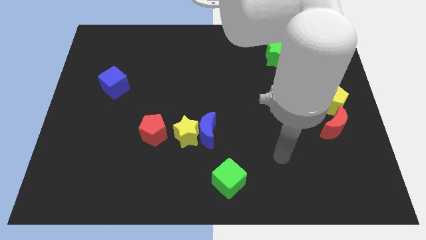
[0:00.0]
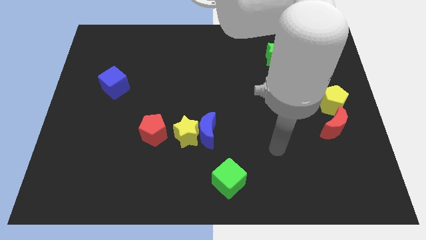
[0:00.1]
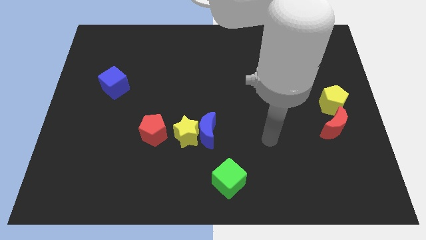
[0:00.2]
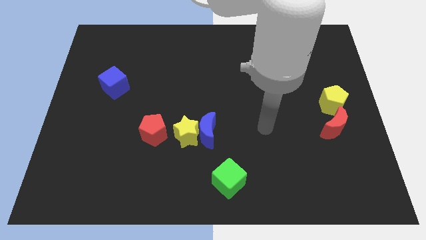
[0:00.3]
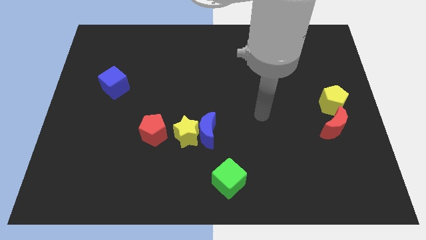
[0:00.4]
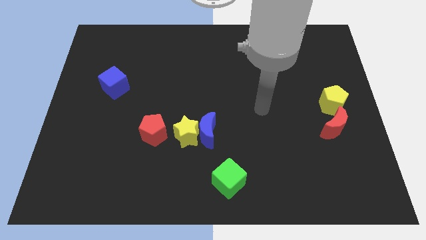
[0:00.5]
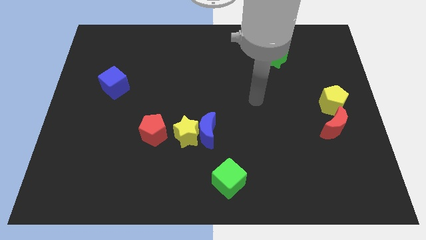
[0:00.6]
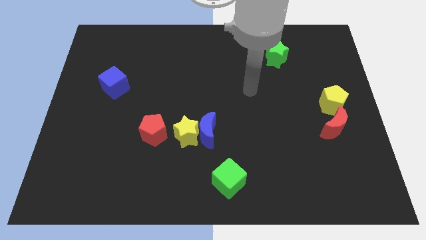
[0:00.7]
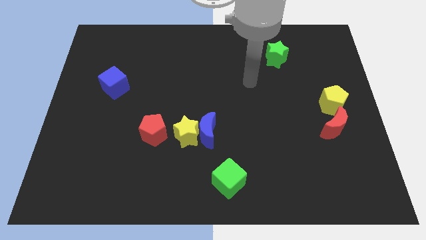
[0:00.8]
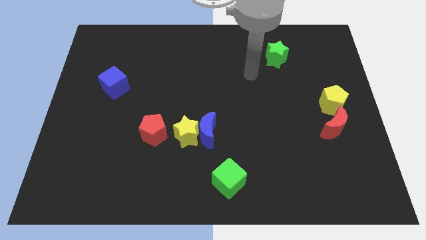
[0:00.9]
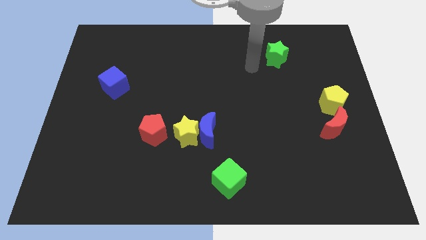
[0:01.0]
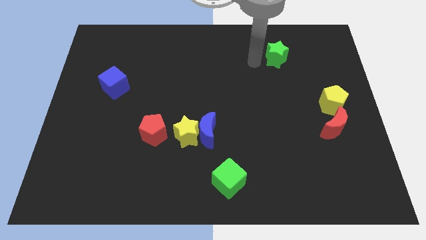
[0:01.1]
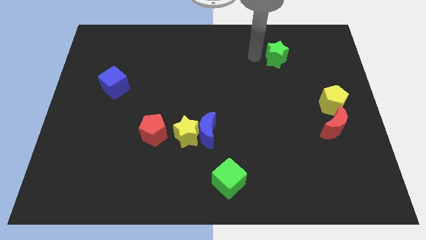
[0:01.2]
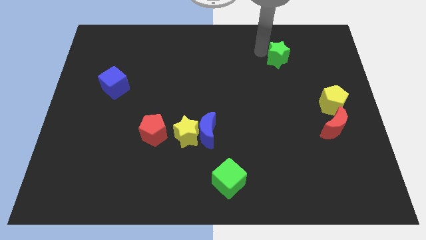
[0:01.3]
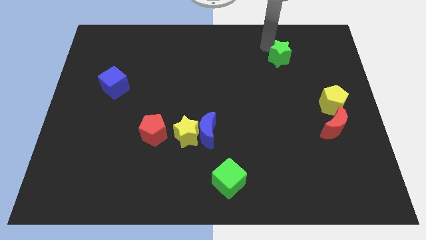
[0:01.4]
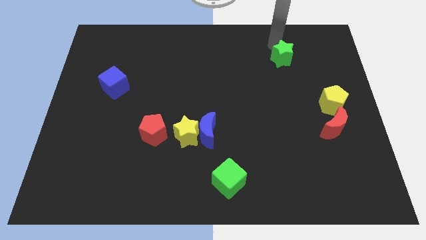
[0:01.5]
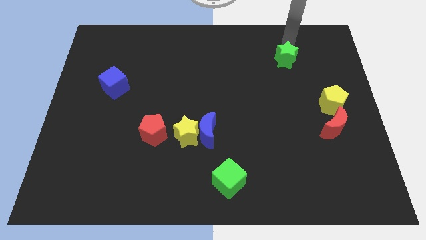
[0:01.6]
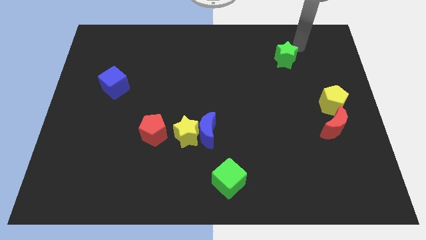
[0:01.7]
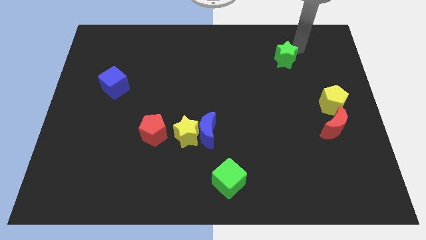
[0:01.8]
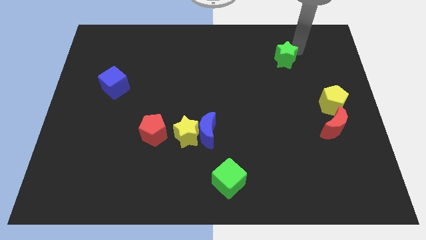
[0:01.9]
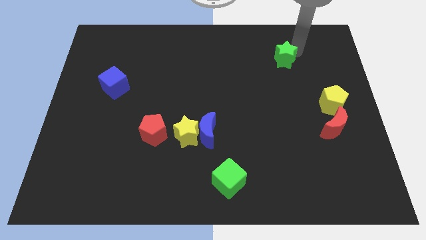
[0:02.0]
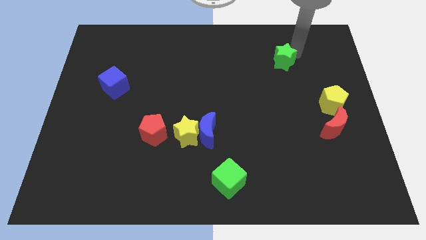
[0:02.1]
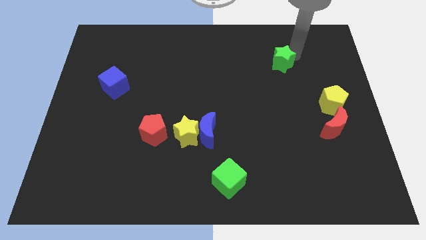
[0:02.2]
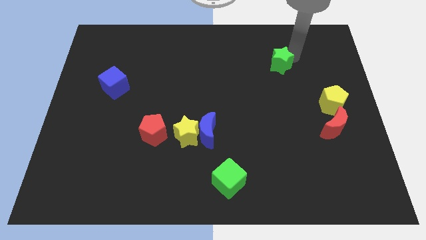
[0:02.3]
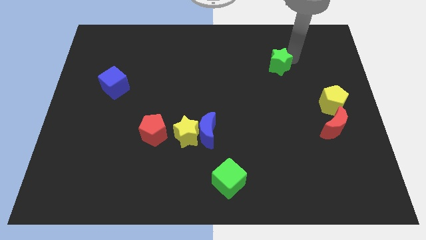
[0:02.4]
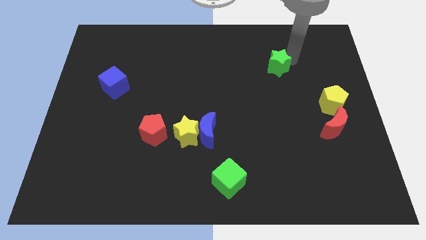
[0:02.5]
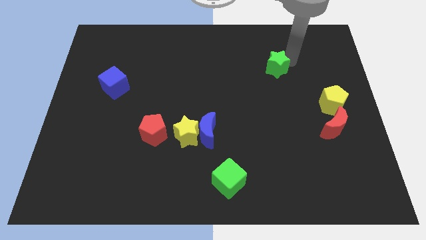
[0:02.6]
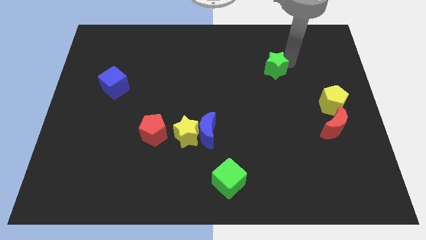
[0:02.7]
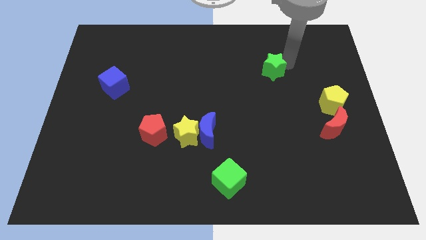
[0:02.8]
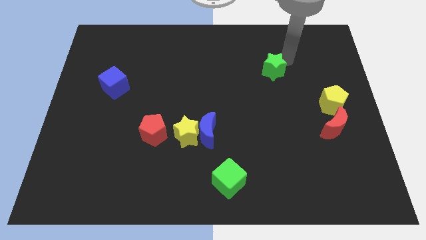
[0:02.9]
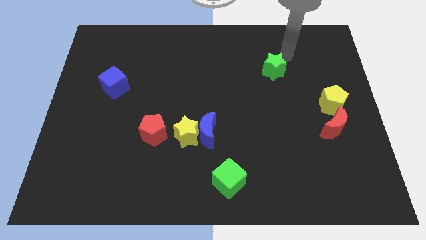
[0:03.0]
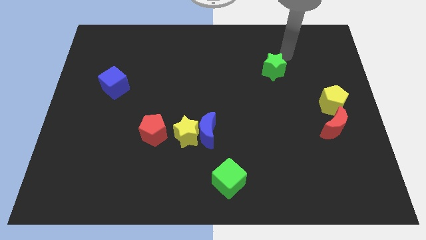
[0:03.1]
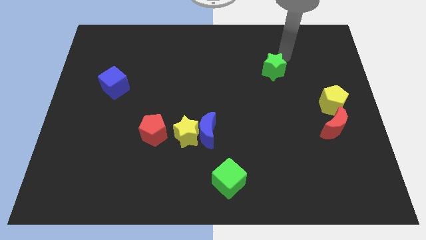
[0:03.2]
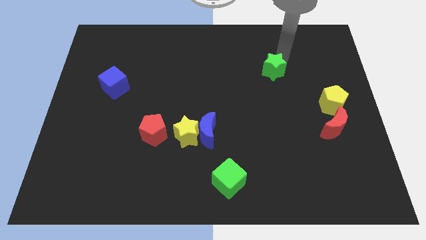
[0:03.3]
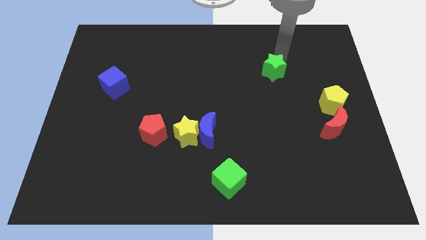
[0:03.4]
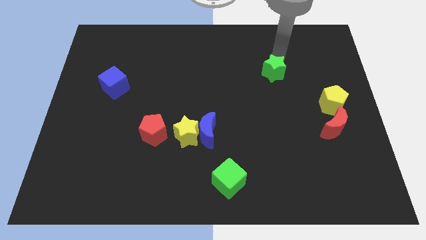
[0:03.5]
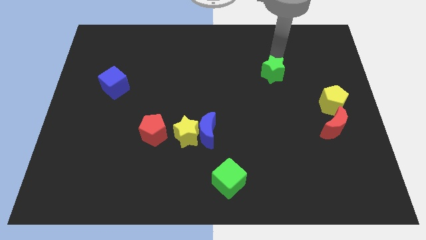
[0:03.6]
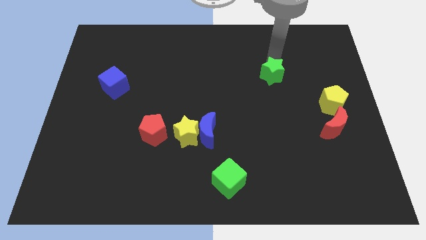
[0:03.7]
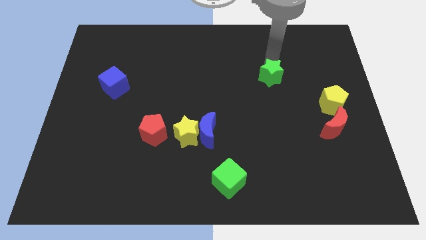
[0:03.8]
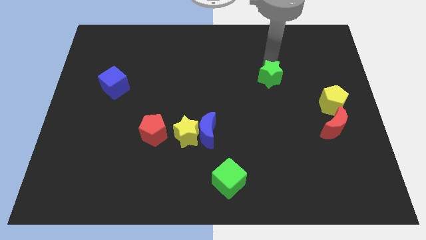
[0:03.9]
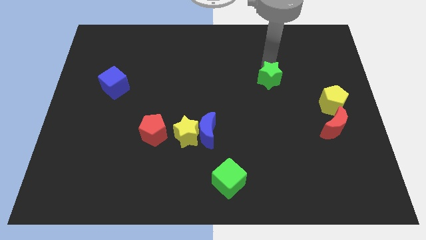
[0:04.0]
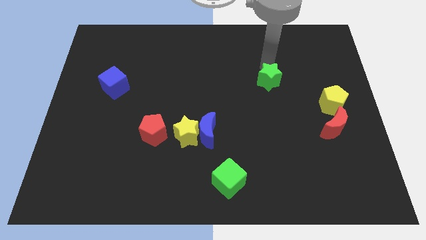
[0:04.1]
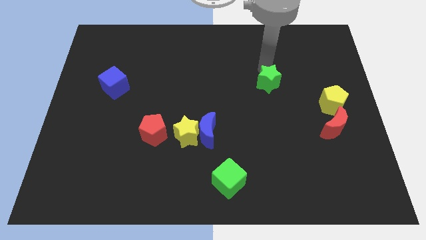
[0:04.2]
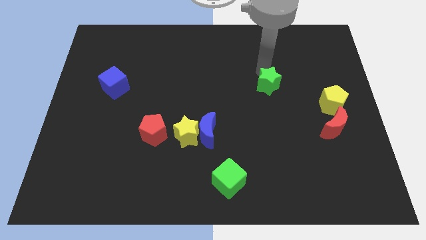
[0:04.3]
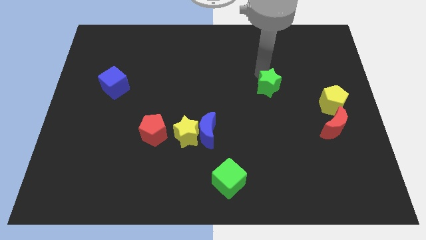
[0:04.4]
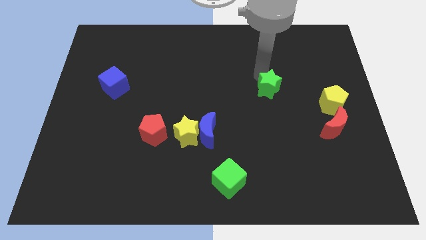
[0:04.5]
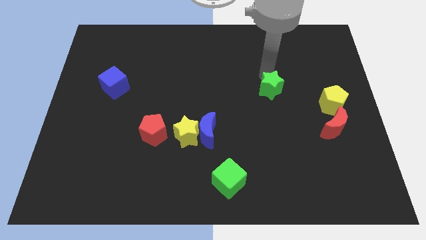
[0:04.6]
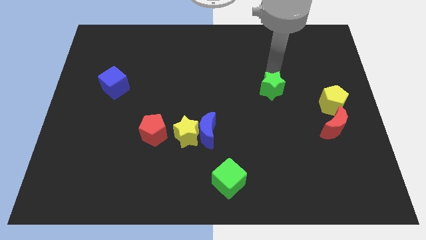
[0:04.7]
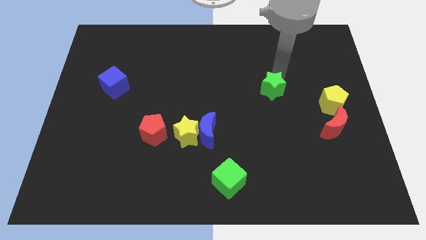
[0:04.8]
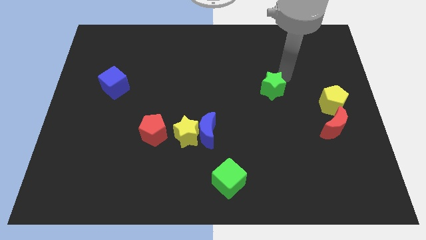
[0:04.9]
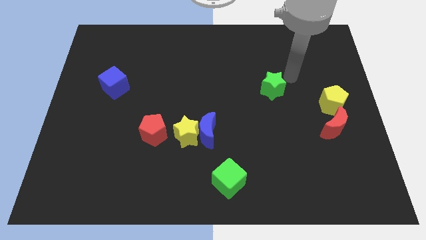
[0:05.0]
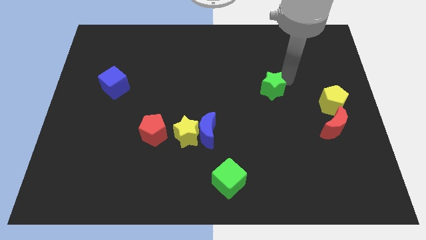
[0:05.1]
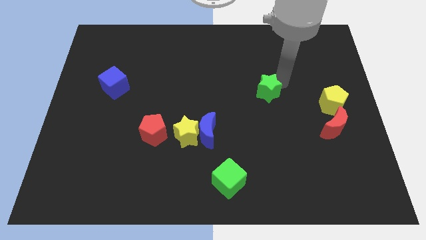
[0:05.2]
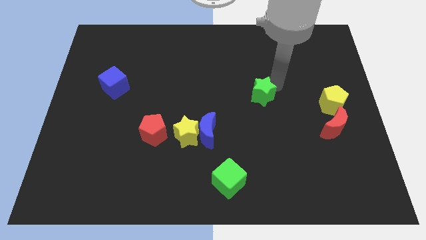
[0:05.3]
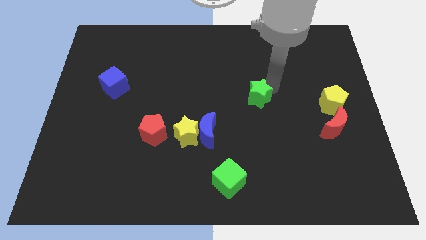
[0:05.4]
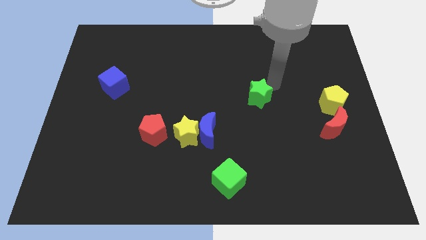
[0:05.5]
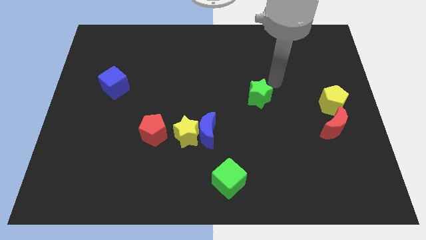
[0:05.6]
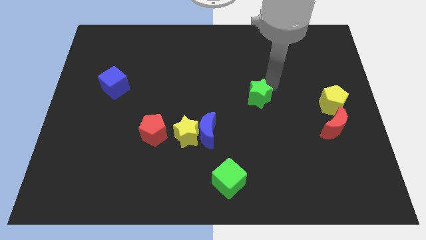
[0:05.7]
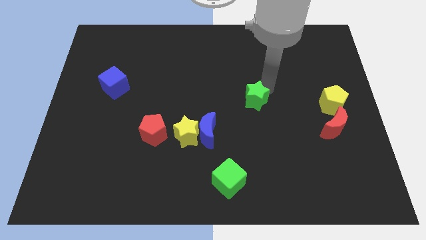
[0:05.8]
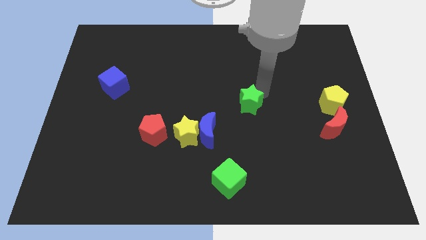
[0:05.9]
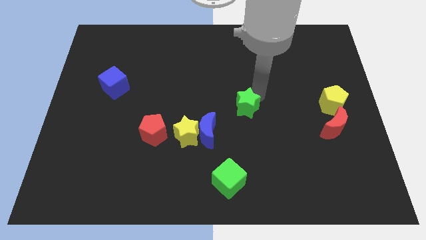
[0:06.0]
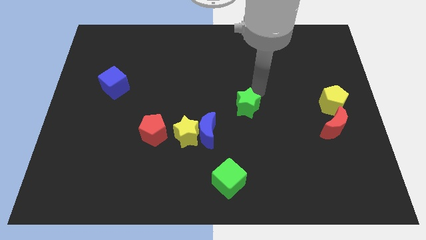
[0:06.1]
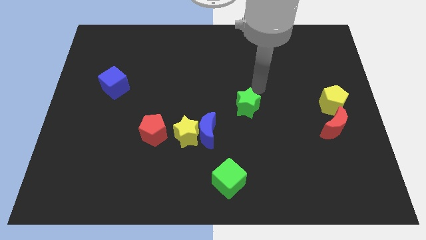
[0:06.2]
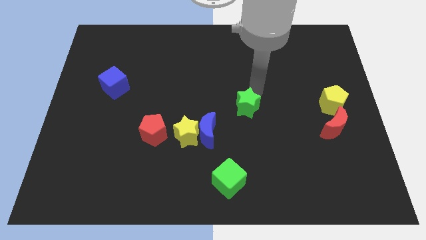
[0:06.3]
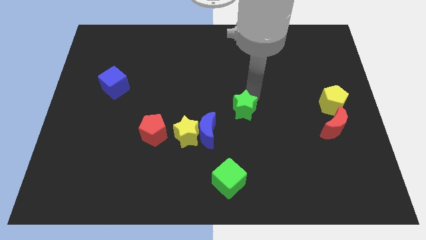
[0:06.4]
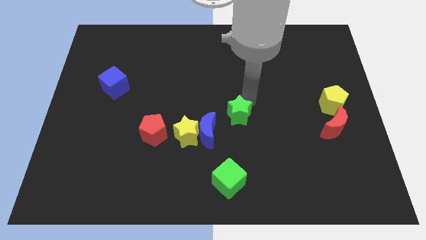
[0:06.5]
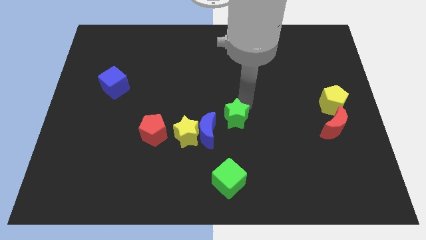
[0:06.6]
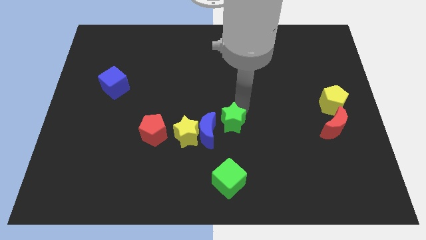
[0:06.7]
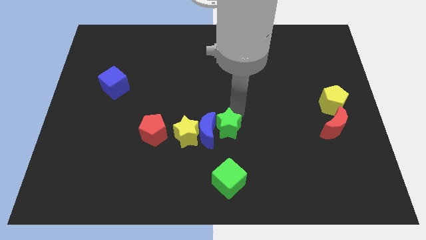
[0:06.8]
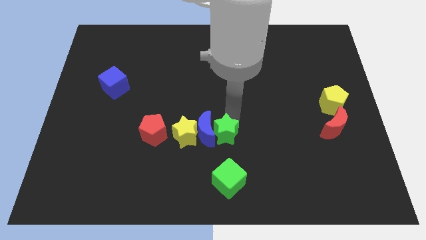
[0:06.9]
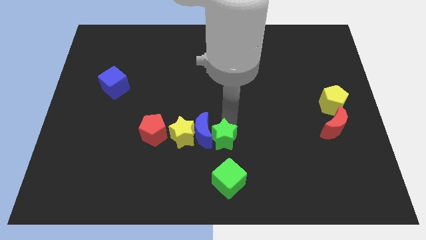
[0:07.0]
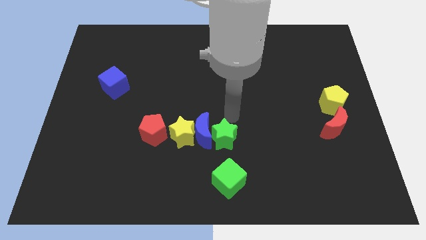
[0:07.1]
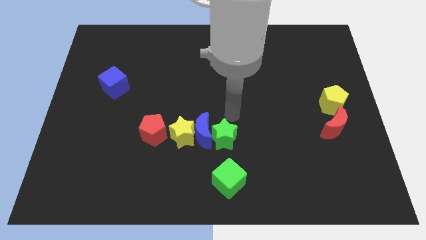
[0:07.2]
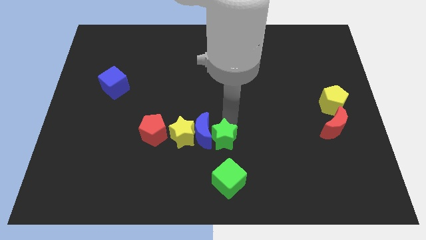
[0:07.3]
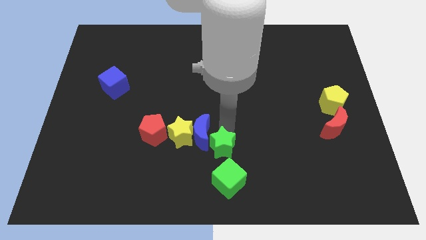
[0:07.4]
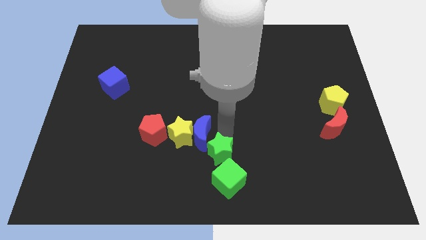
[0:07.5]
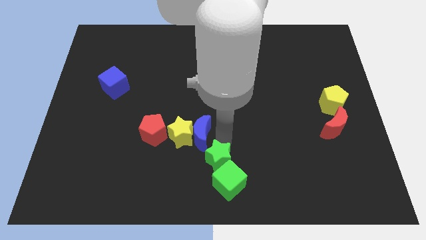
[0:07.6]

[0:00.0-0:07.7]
slide the green star to the bottom
